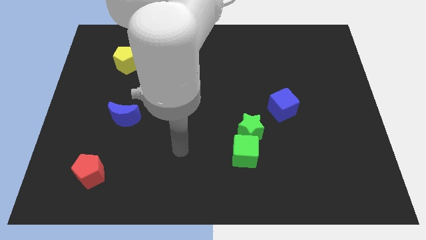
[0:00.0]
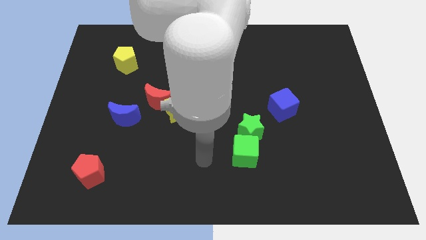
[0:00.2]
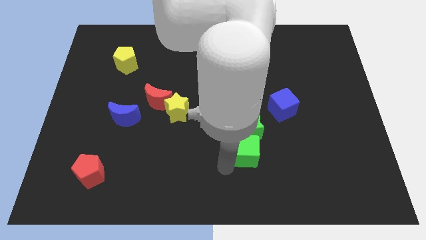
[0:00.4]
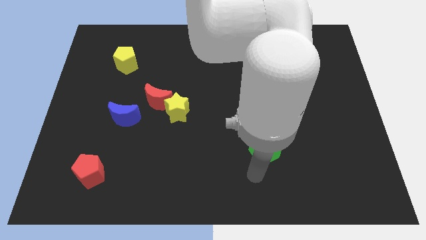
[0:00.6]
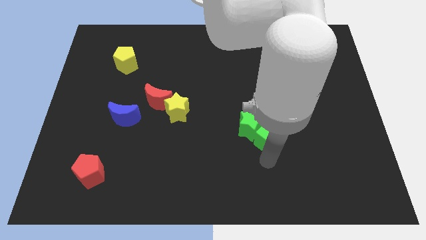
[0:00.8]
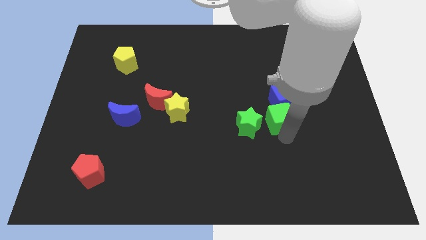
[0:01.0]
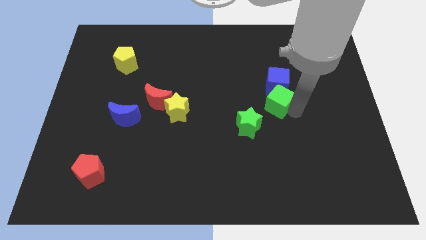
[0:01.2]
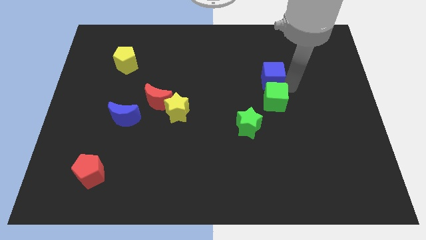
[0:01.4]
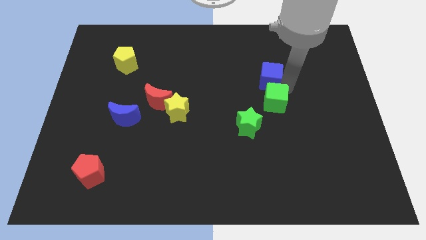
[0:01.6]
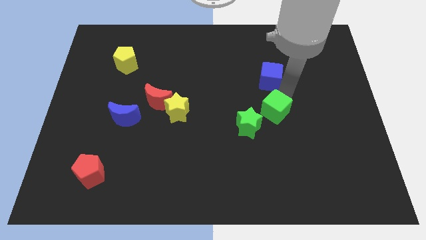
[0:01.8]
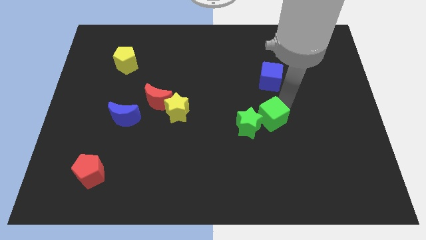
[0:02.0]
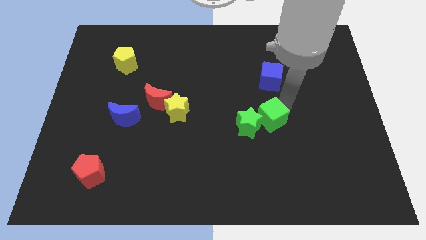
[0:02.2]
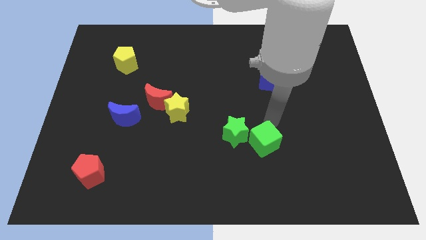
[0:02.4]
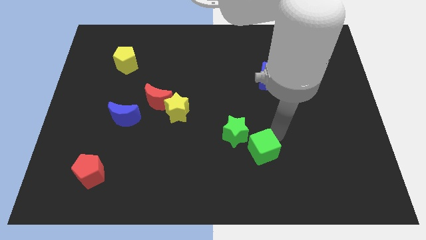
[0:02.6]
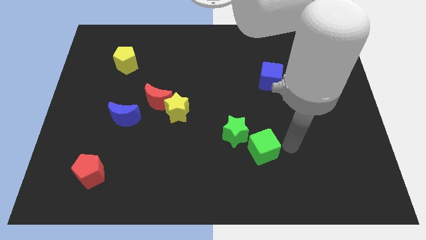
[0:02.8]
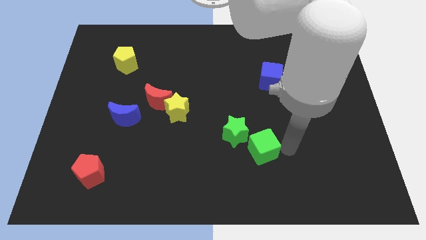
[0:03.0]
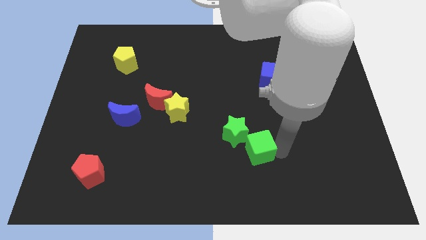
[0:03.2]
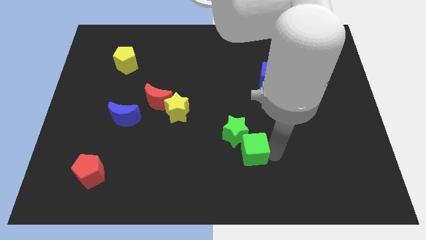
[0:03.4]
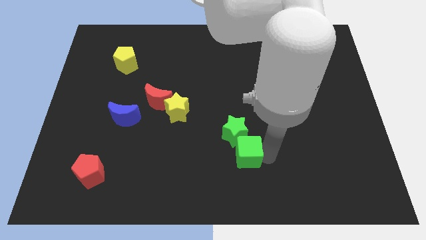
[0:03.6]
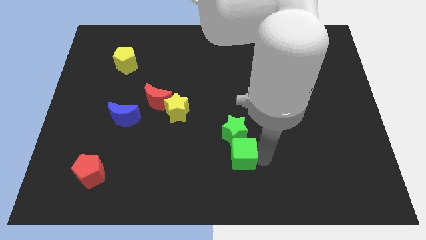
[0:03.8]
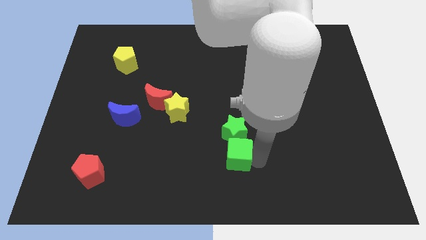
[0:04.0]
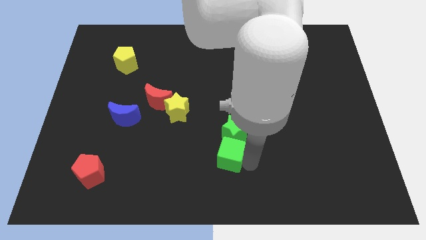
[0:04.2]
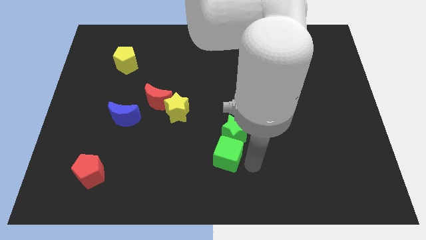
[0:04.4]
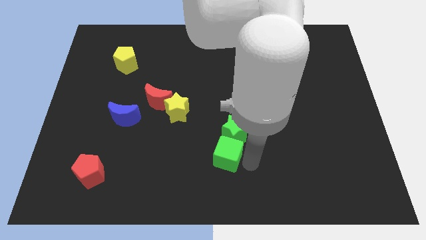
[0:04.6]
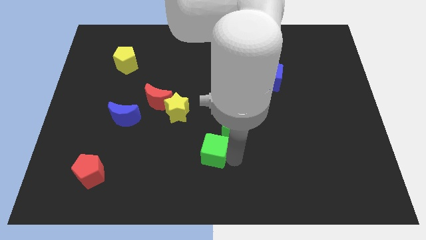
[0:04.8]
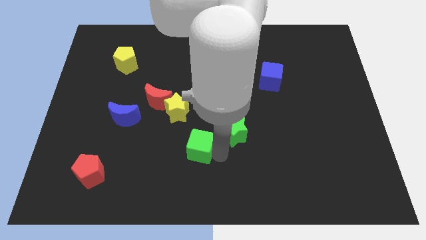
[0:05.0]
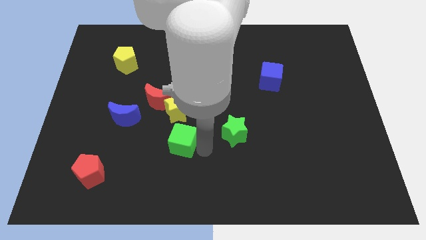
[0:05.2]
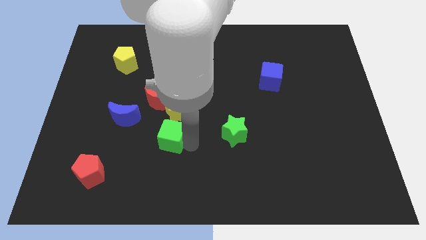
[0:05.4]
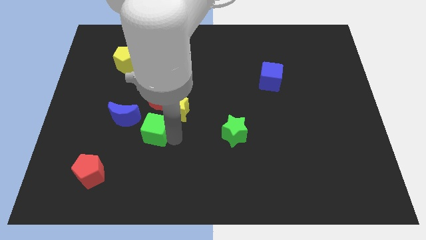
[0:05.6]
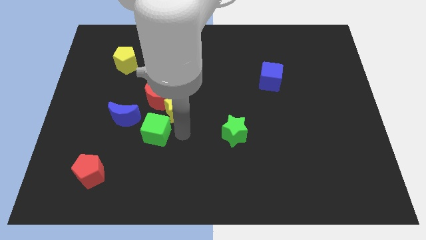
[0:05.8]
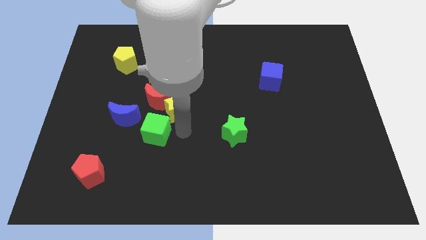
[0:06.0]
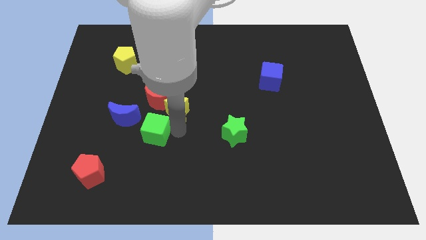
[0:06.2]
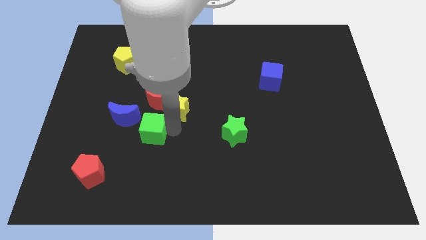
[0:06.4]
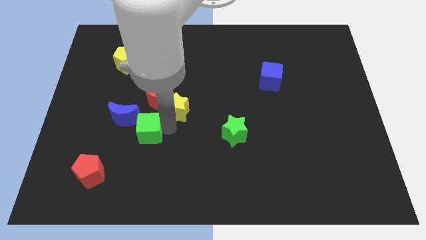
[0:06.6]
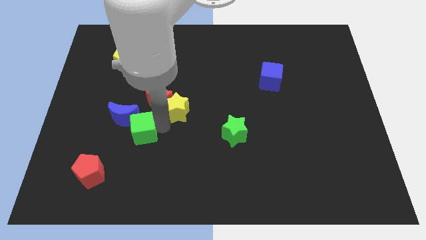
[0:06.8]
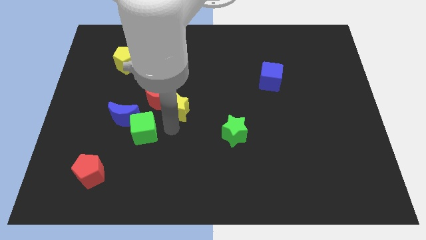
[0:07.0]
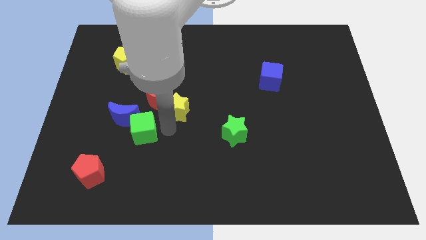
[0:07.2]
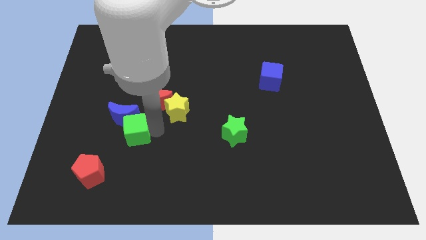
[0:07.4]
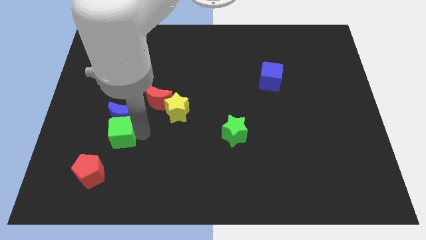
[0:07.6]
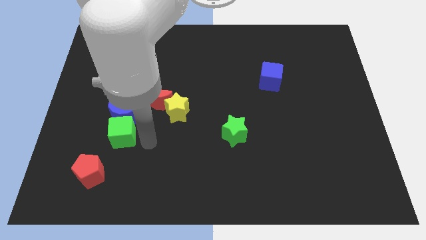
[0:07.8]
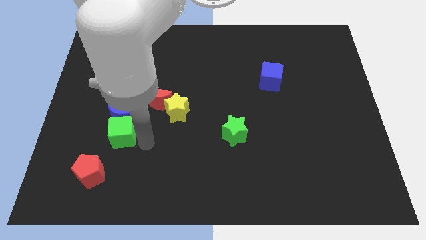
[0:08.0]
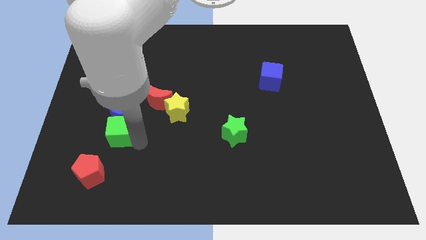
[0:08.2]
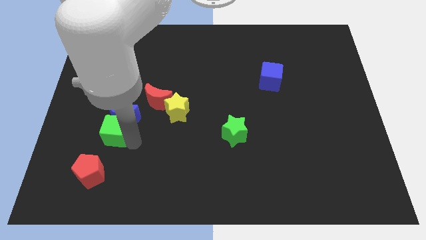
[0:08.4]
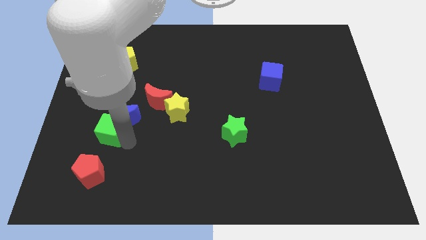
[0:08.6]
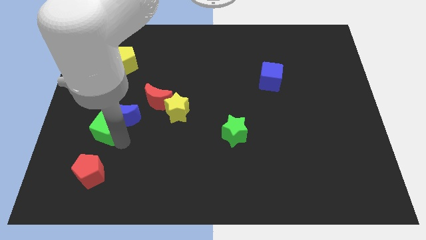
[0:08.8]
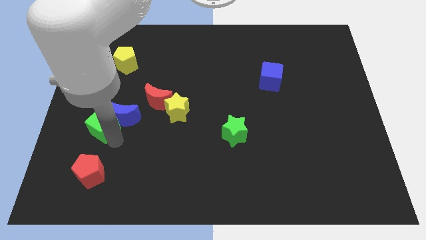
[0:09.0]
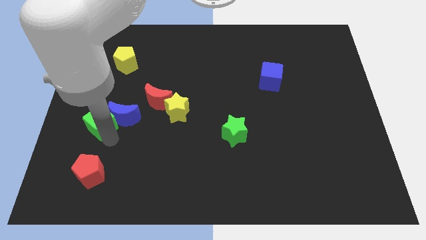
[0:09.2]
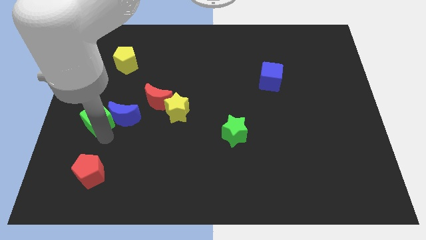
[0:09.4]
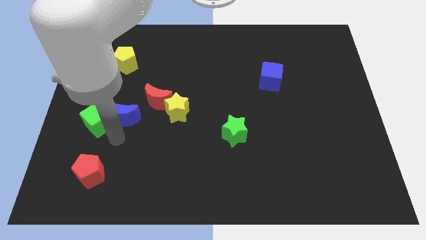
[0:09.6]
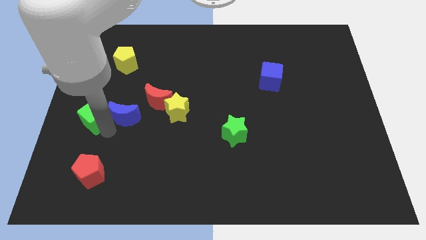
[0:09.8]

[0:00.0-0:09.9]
put the green cube to the center left

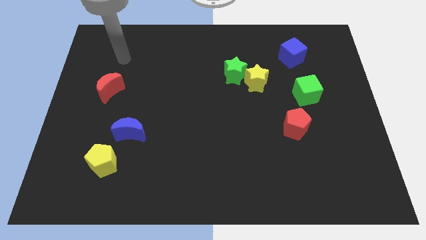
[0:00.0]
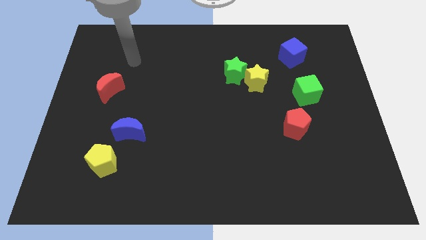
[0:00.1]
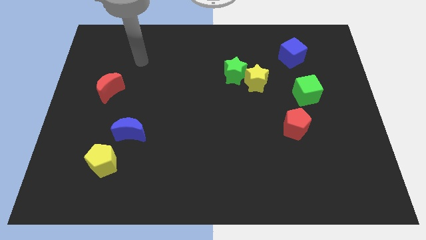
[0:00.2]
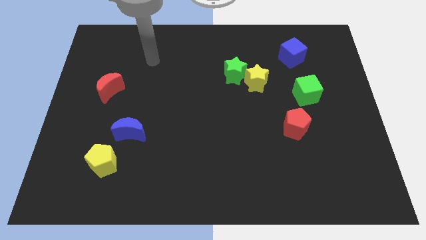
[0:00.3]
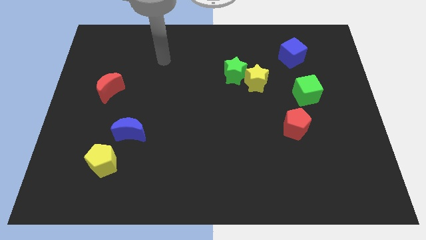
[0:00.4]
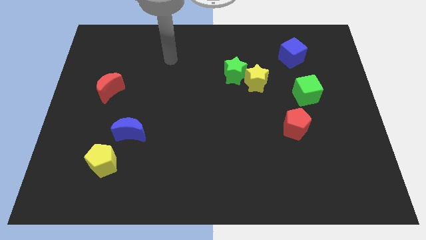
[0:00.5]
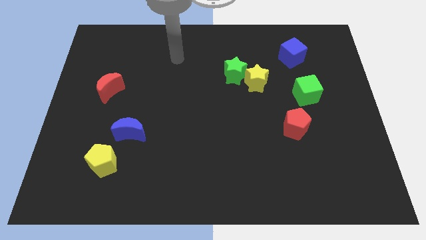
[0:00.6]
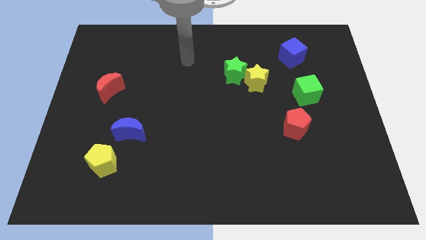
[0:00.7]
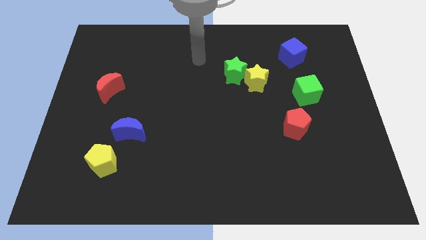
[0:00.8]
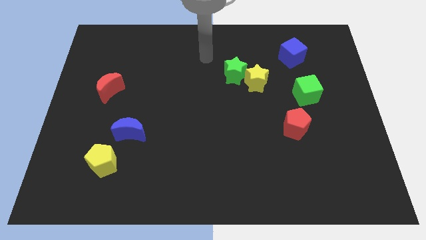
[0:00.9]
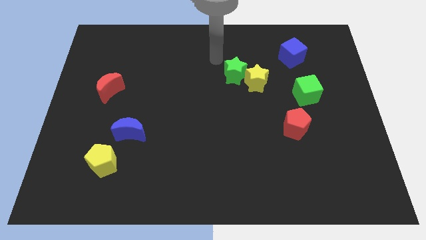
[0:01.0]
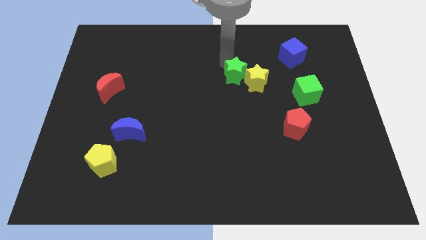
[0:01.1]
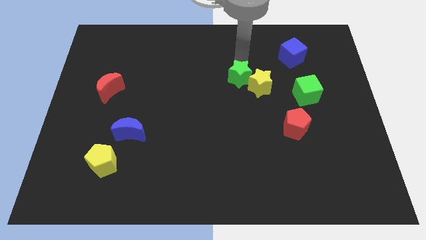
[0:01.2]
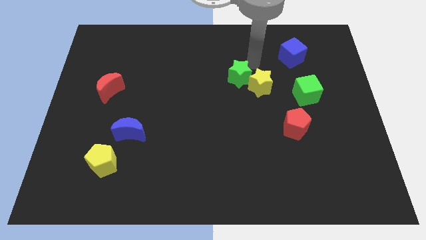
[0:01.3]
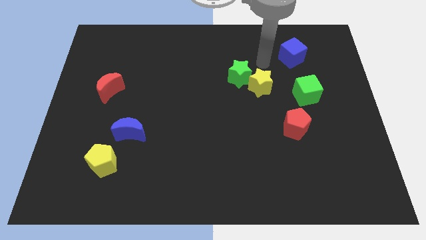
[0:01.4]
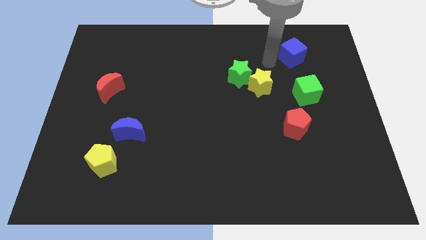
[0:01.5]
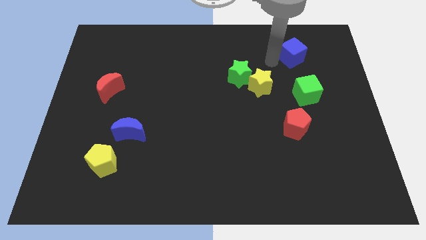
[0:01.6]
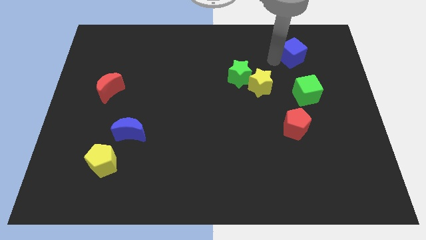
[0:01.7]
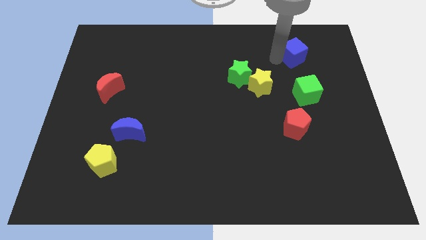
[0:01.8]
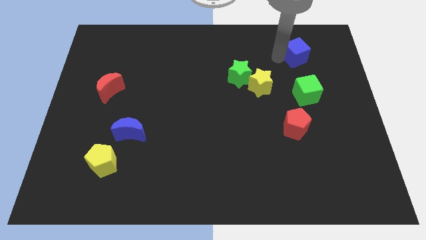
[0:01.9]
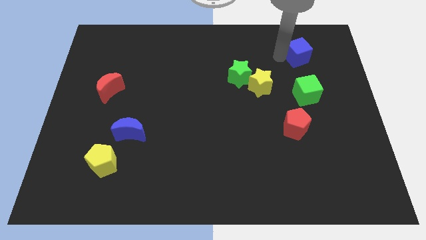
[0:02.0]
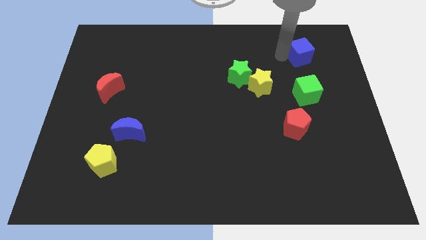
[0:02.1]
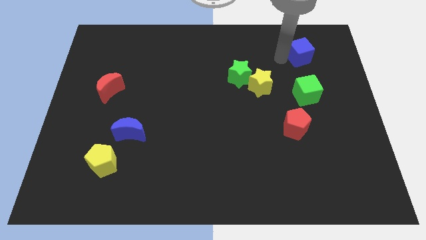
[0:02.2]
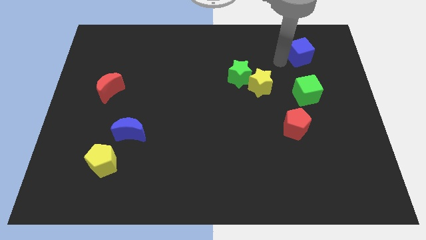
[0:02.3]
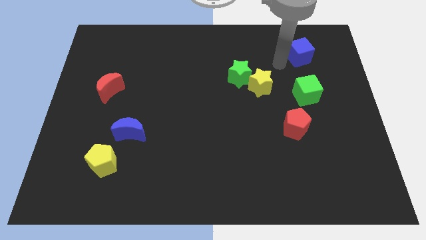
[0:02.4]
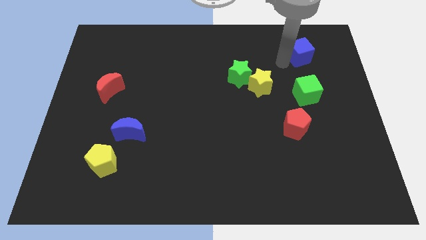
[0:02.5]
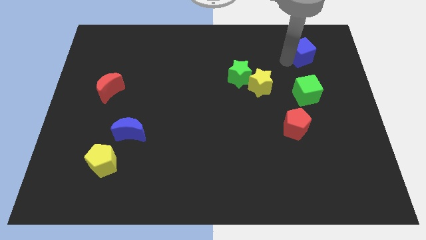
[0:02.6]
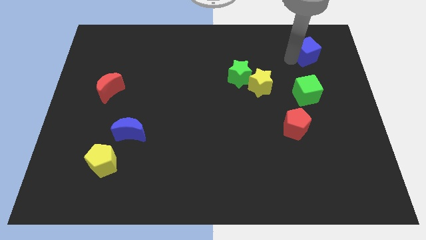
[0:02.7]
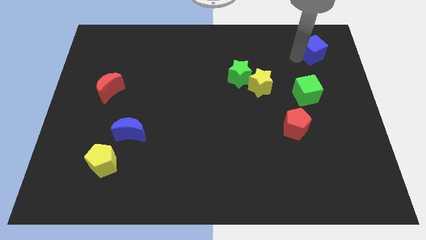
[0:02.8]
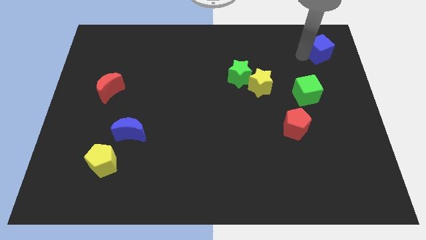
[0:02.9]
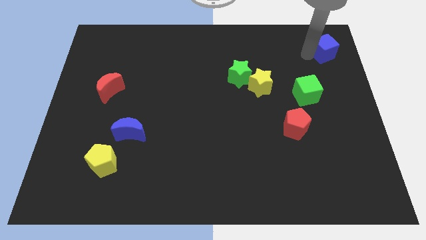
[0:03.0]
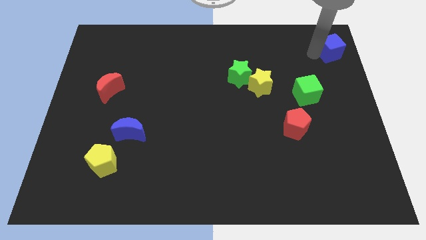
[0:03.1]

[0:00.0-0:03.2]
move the blue cube to the top right of the board
